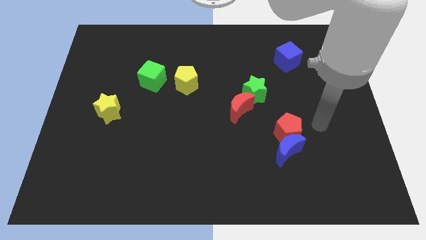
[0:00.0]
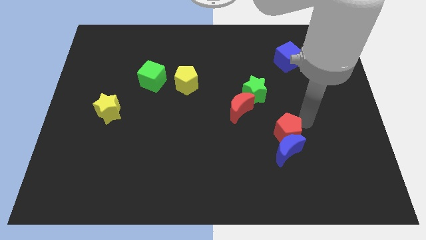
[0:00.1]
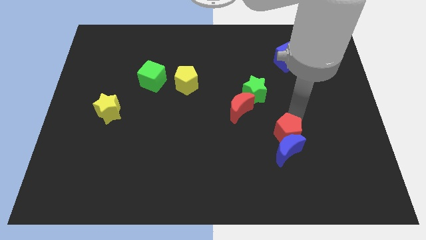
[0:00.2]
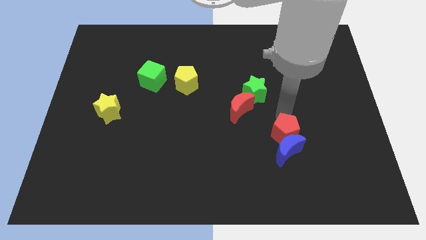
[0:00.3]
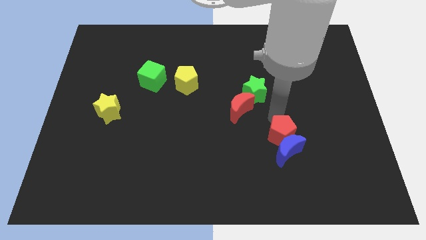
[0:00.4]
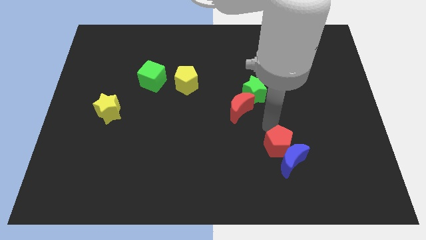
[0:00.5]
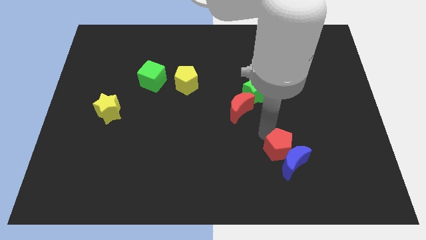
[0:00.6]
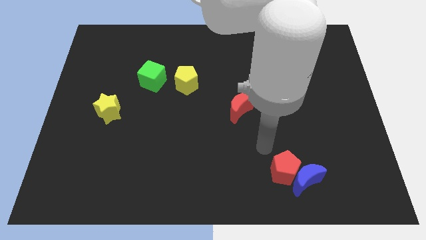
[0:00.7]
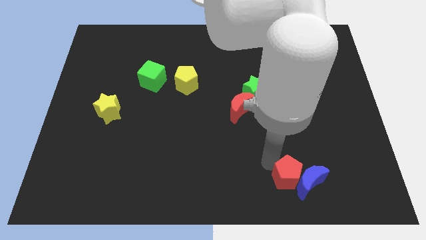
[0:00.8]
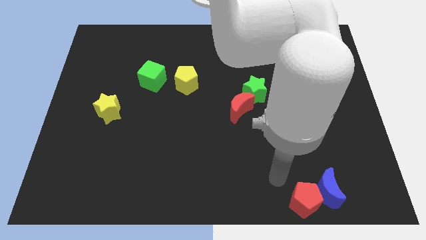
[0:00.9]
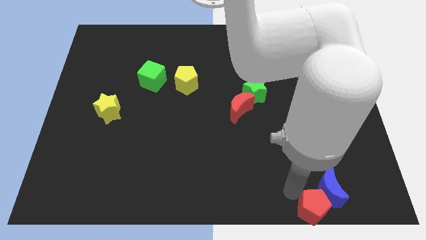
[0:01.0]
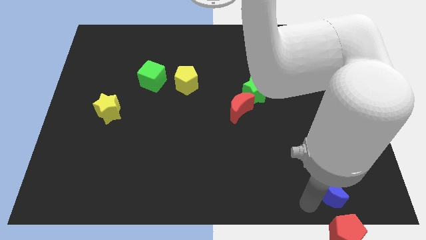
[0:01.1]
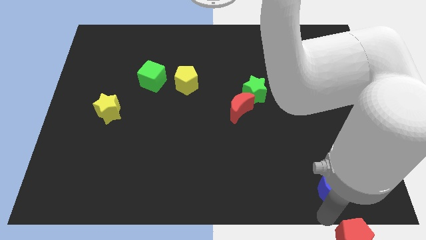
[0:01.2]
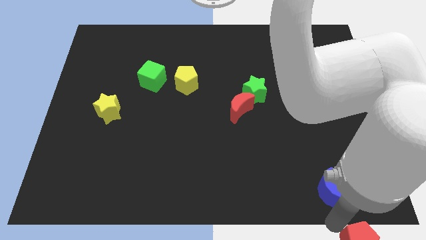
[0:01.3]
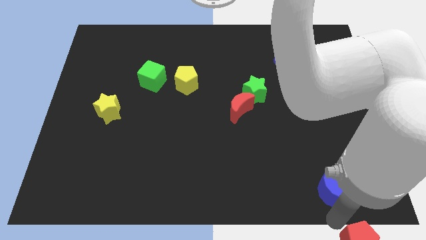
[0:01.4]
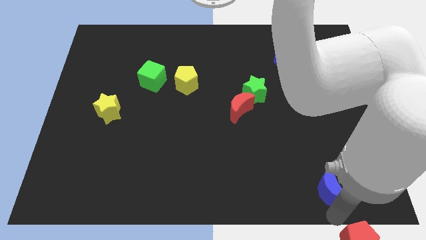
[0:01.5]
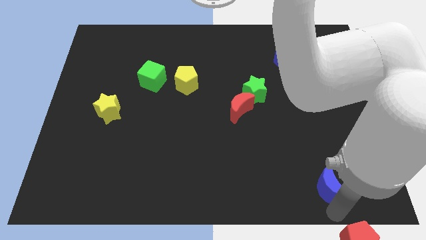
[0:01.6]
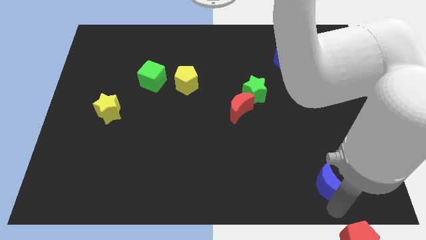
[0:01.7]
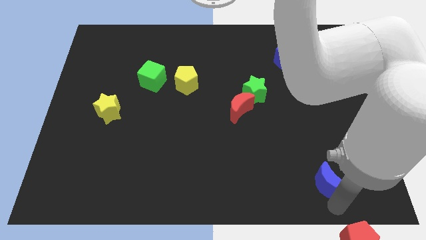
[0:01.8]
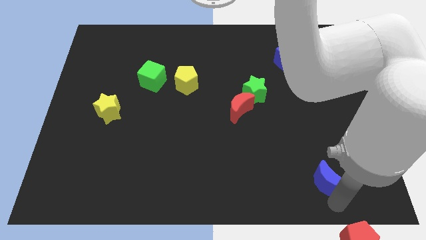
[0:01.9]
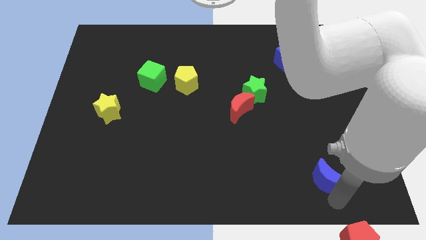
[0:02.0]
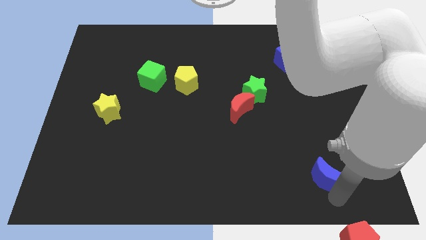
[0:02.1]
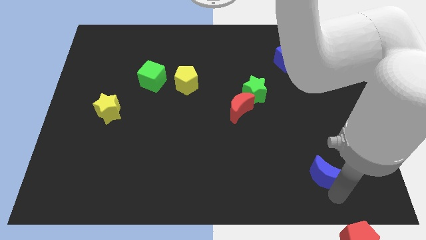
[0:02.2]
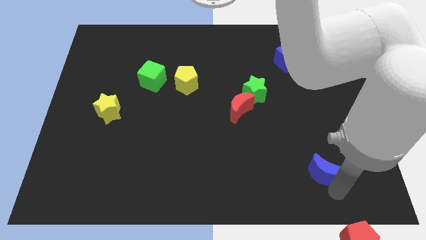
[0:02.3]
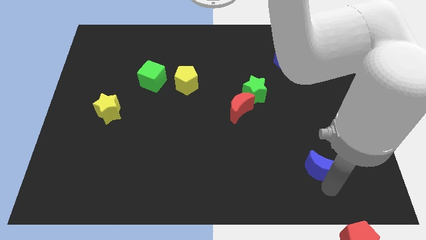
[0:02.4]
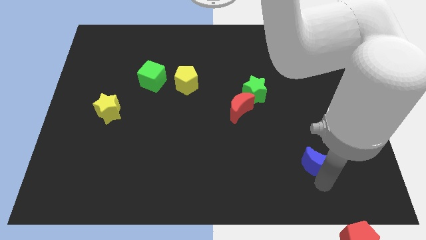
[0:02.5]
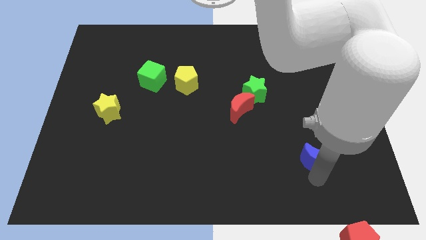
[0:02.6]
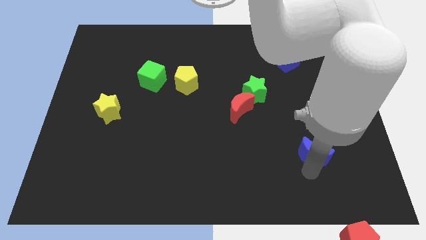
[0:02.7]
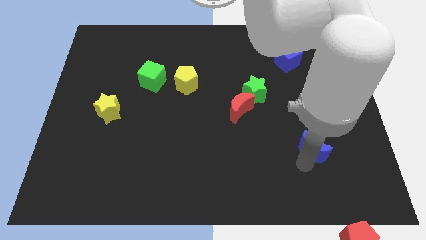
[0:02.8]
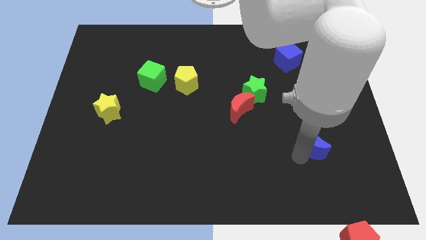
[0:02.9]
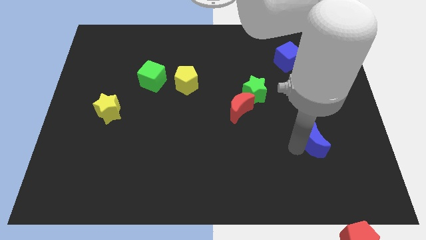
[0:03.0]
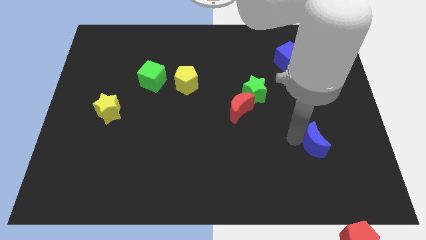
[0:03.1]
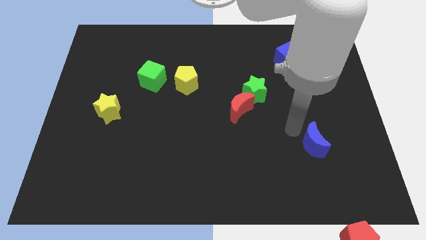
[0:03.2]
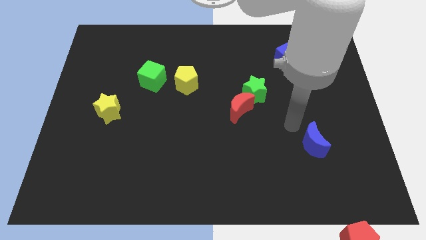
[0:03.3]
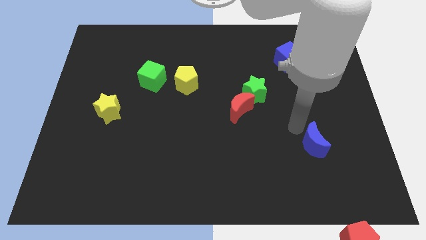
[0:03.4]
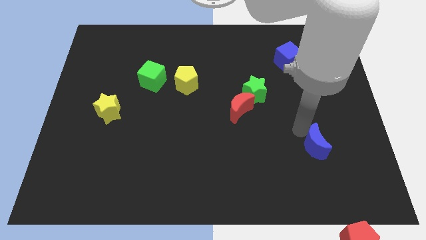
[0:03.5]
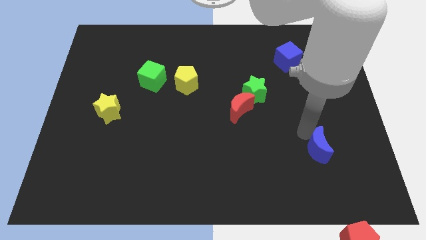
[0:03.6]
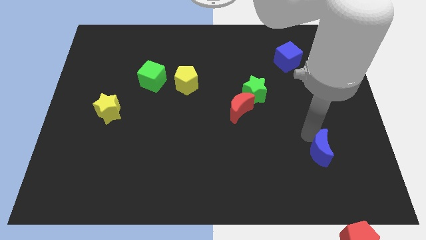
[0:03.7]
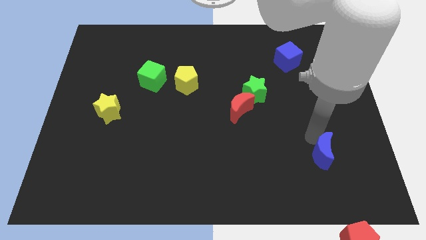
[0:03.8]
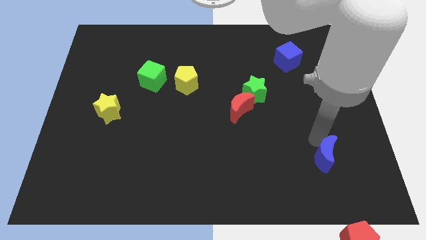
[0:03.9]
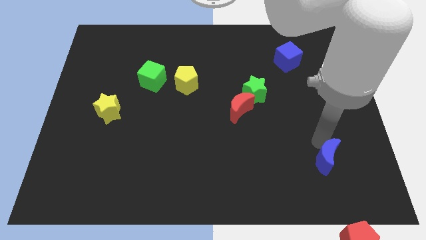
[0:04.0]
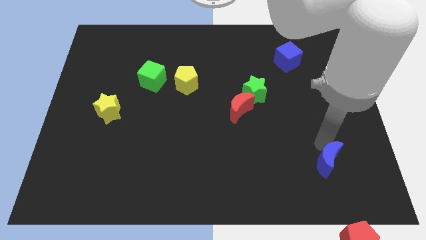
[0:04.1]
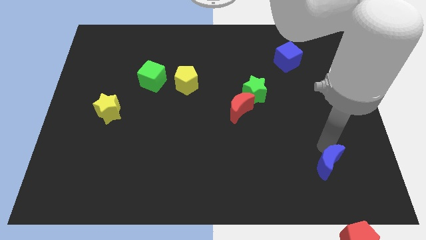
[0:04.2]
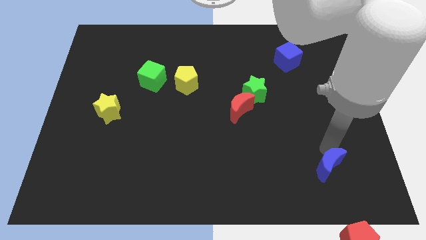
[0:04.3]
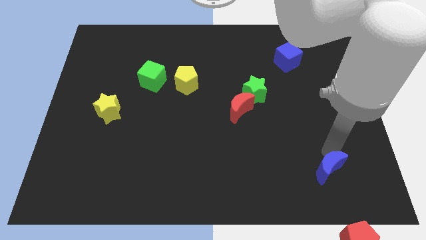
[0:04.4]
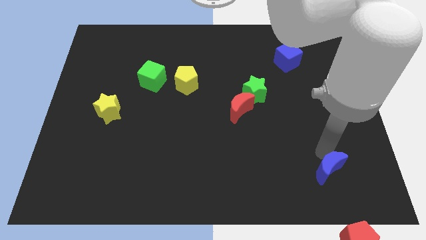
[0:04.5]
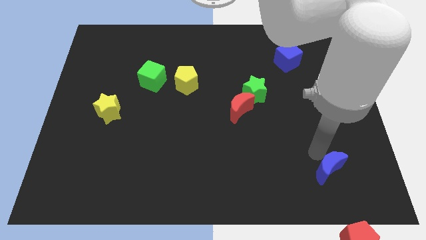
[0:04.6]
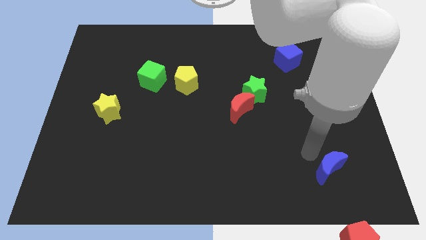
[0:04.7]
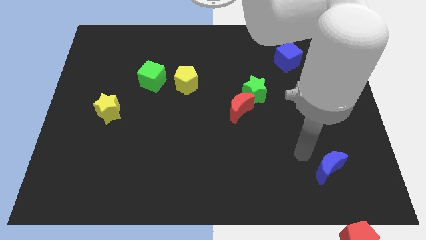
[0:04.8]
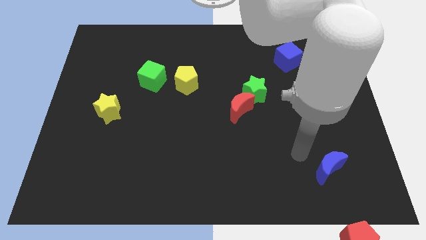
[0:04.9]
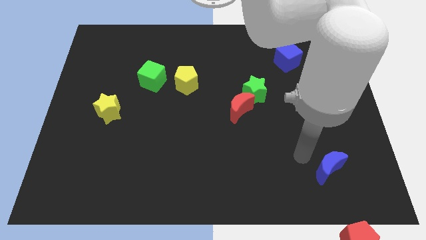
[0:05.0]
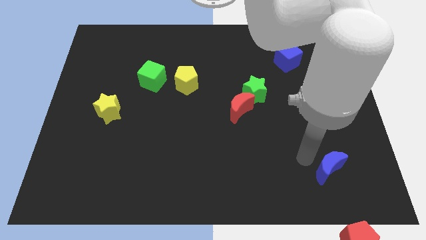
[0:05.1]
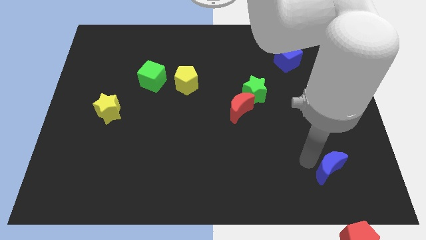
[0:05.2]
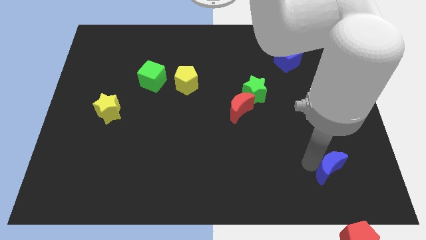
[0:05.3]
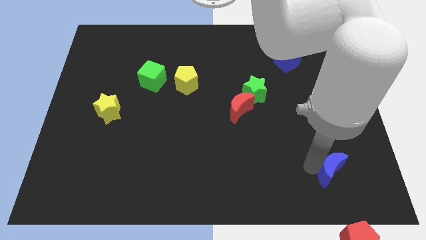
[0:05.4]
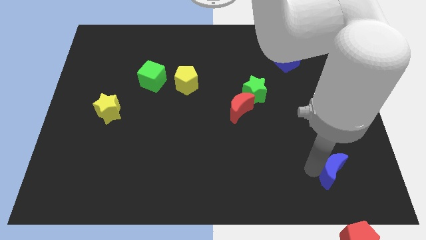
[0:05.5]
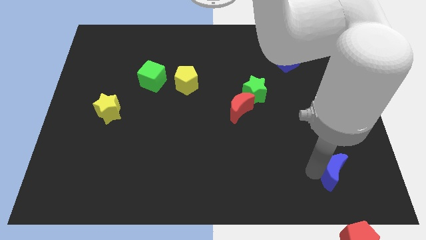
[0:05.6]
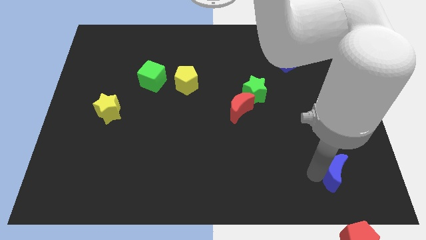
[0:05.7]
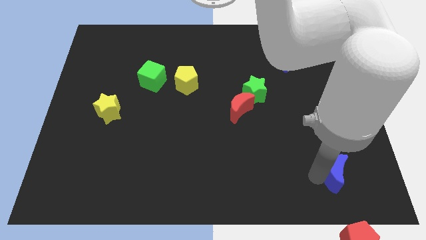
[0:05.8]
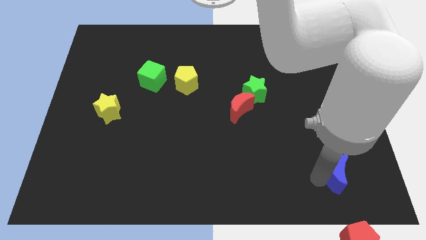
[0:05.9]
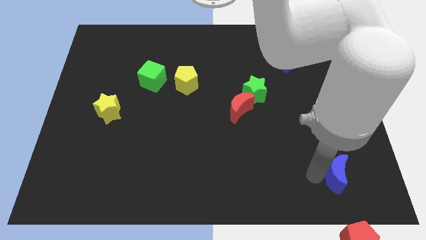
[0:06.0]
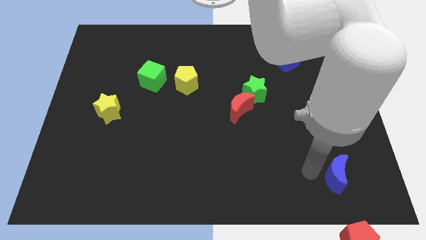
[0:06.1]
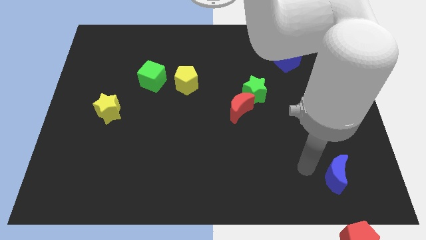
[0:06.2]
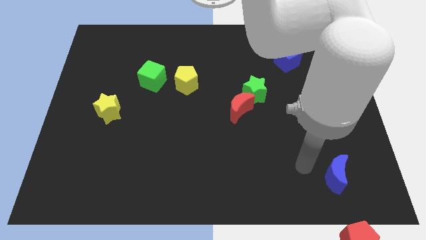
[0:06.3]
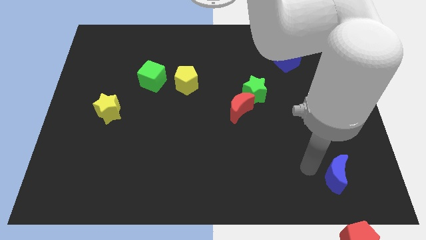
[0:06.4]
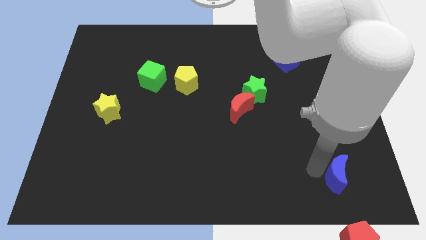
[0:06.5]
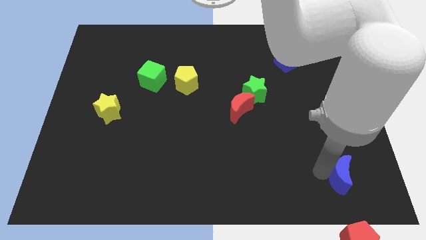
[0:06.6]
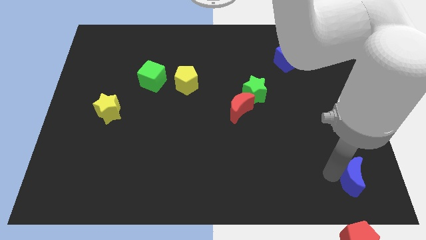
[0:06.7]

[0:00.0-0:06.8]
move the blue moon to the lower right corner
